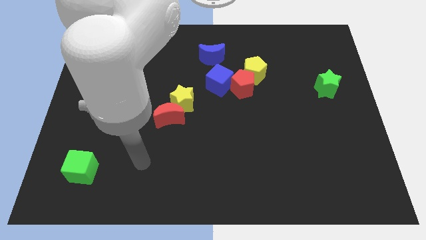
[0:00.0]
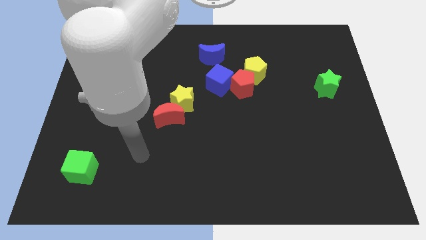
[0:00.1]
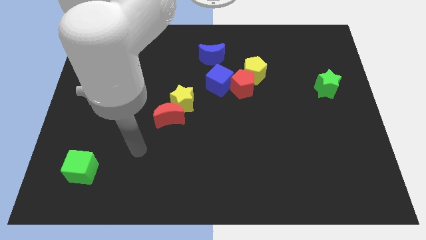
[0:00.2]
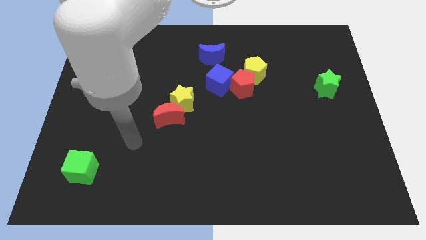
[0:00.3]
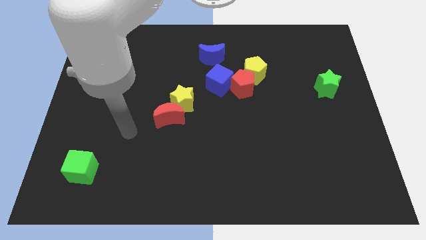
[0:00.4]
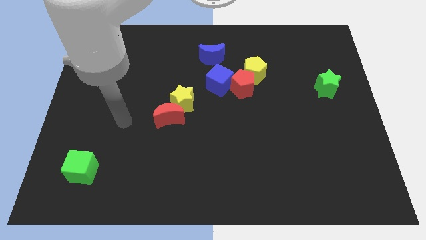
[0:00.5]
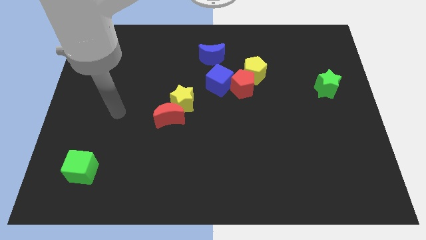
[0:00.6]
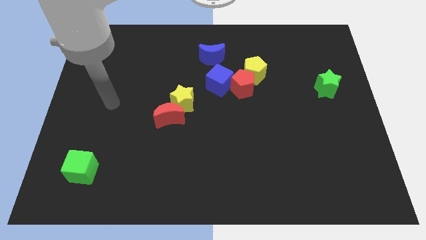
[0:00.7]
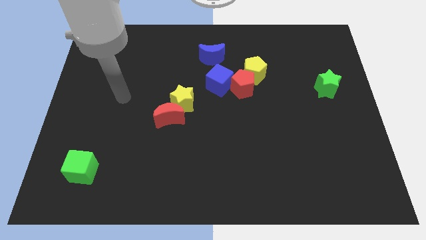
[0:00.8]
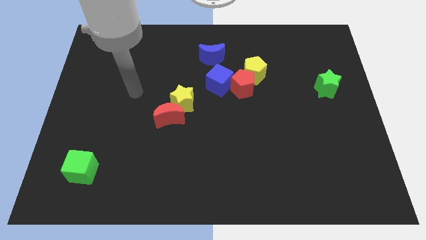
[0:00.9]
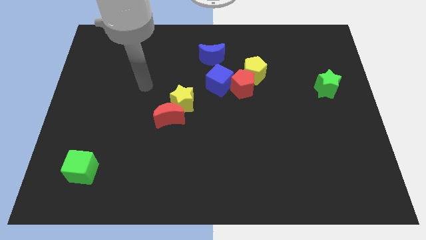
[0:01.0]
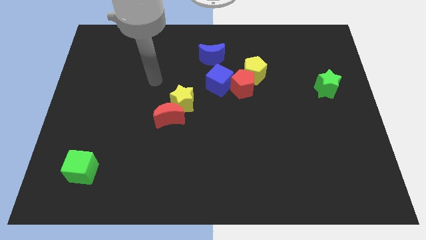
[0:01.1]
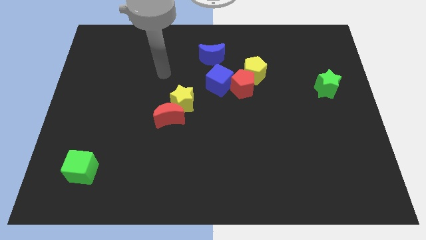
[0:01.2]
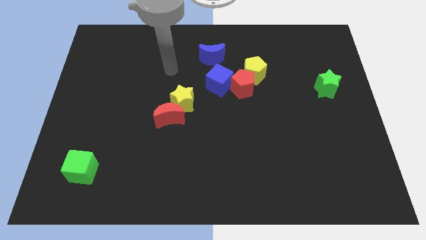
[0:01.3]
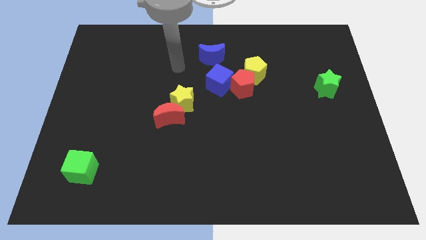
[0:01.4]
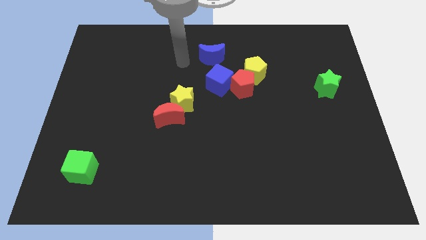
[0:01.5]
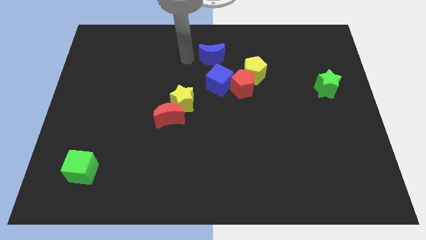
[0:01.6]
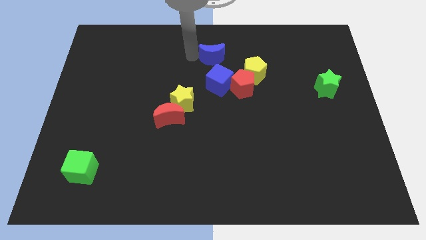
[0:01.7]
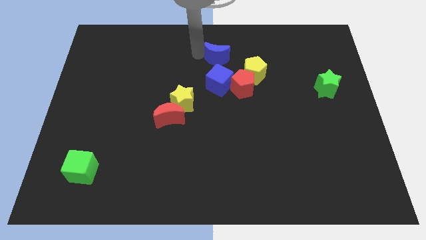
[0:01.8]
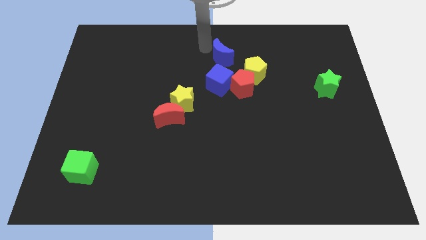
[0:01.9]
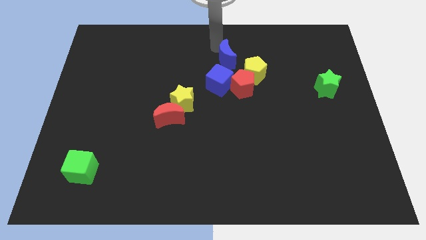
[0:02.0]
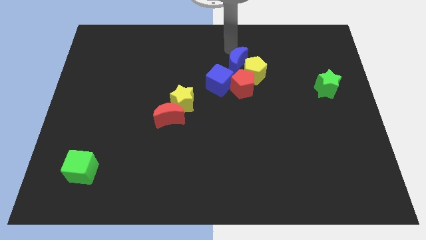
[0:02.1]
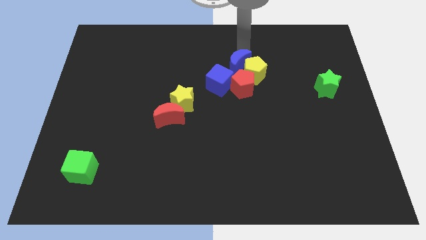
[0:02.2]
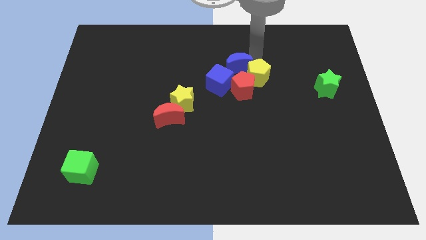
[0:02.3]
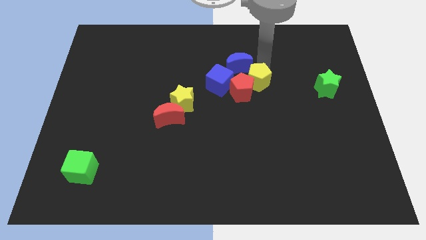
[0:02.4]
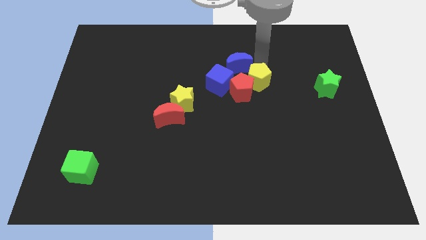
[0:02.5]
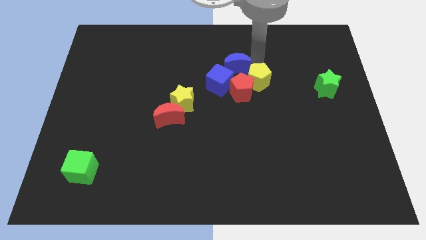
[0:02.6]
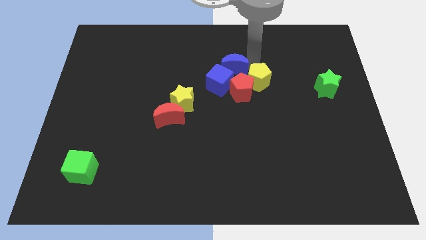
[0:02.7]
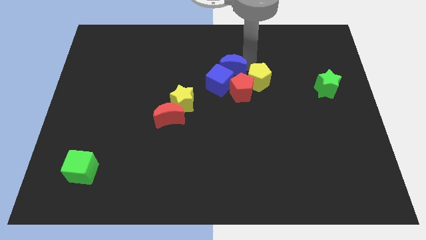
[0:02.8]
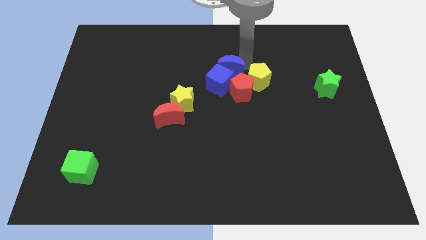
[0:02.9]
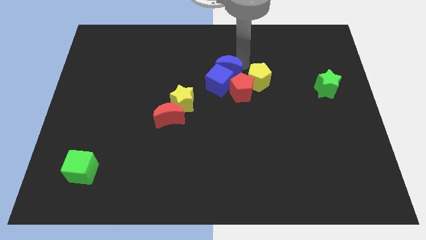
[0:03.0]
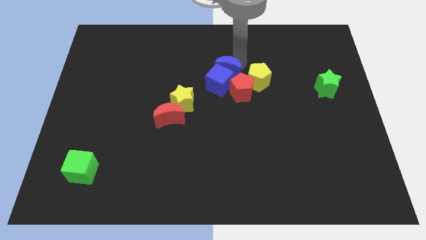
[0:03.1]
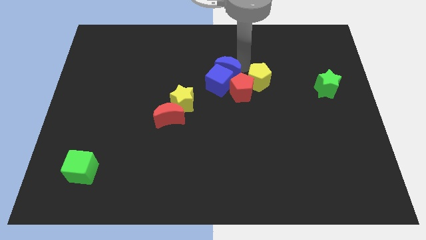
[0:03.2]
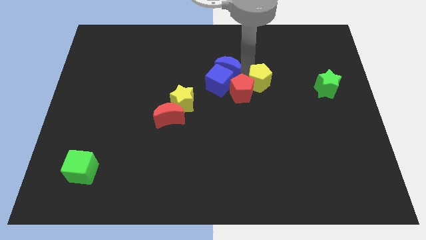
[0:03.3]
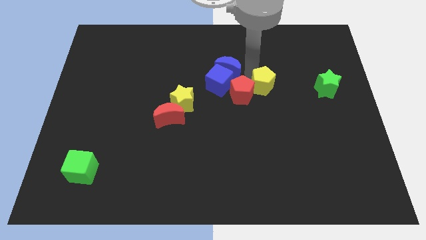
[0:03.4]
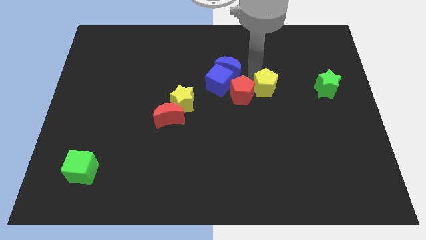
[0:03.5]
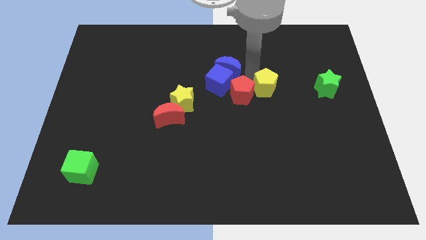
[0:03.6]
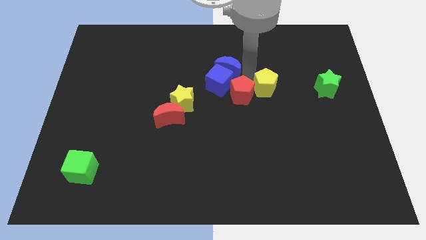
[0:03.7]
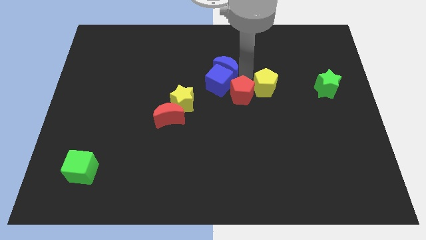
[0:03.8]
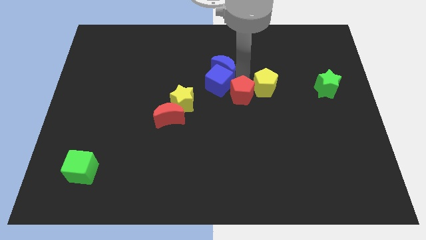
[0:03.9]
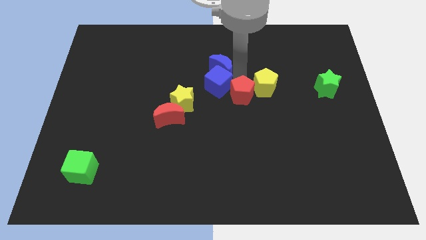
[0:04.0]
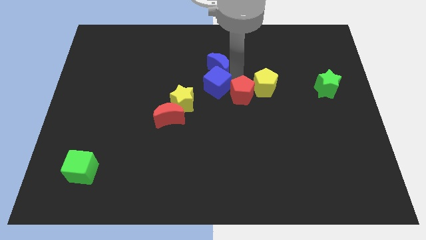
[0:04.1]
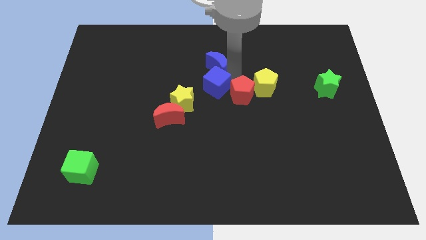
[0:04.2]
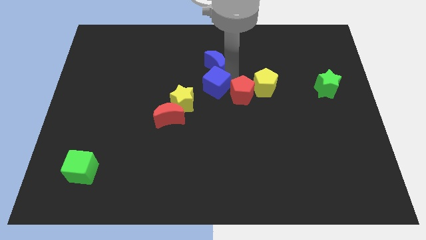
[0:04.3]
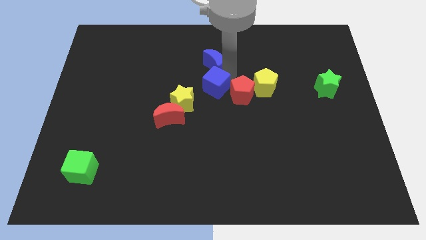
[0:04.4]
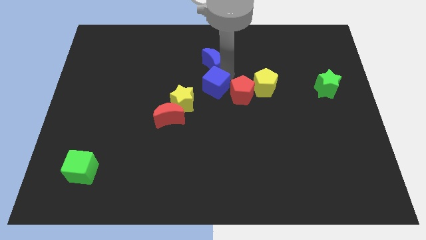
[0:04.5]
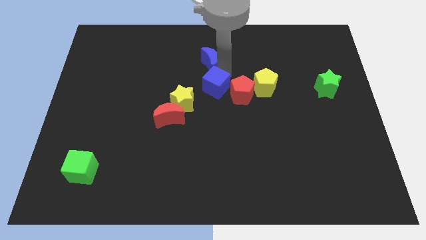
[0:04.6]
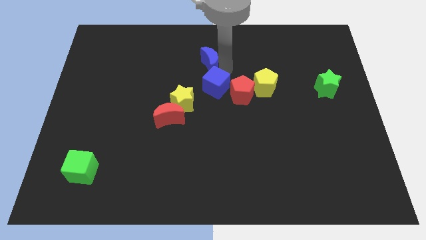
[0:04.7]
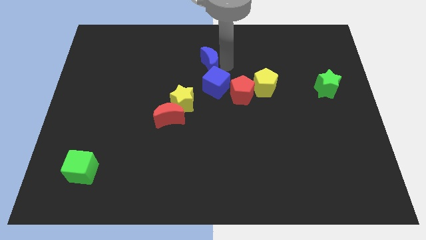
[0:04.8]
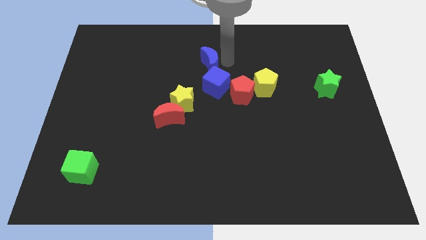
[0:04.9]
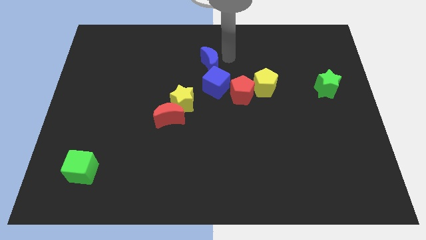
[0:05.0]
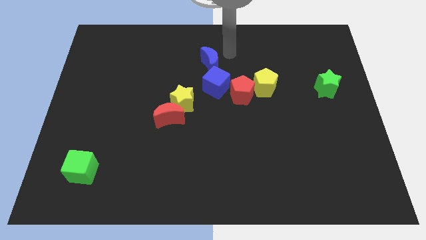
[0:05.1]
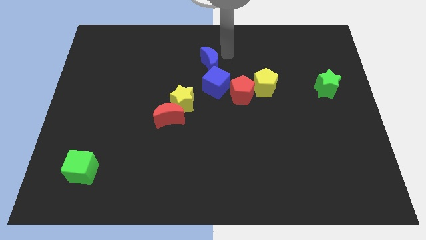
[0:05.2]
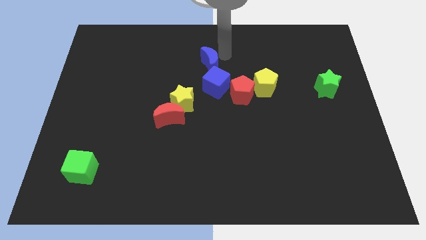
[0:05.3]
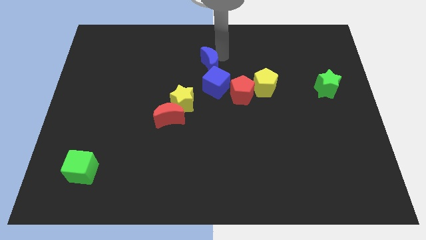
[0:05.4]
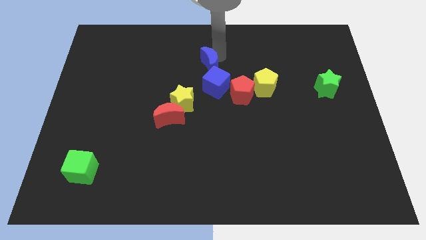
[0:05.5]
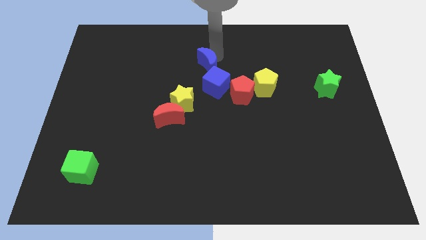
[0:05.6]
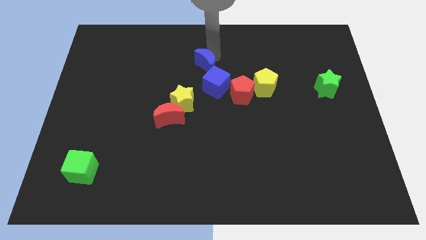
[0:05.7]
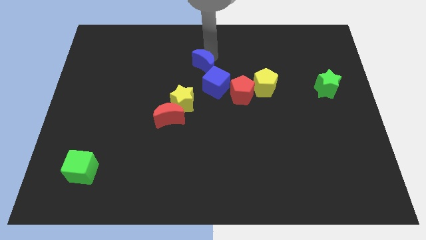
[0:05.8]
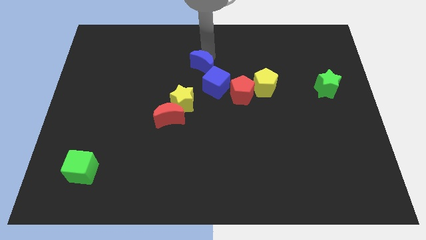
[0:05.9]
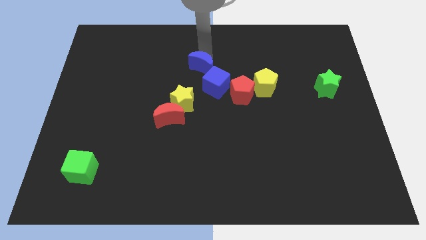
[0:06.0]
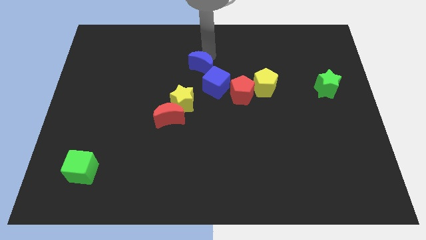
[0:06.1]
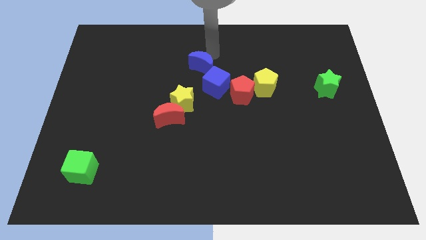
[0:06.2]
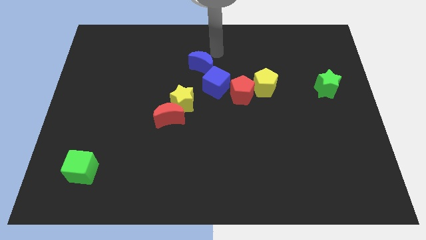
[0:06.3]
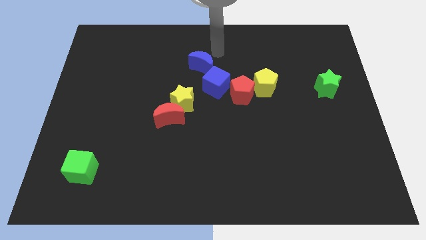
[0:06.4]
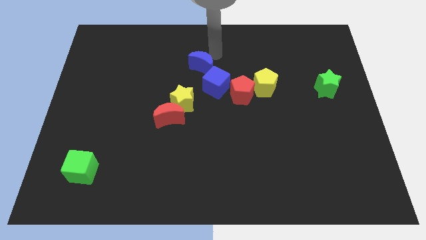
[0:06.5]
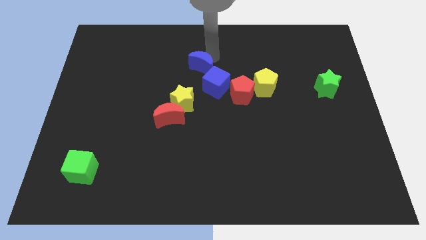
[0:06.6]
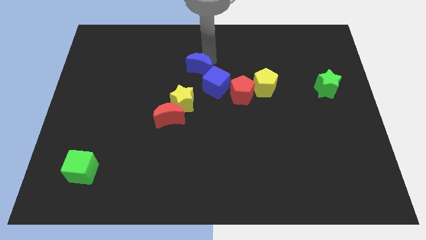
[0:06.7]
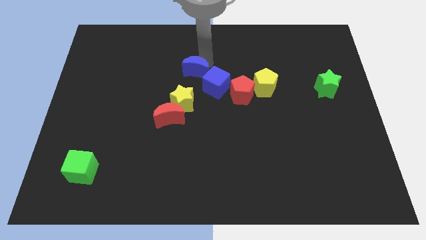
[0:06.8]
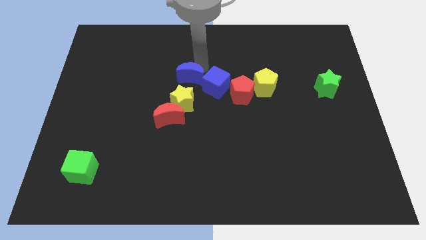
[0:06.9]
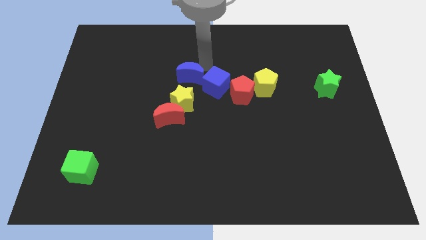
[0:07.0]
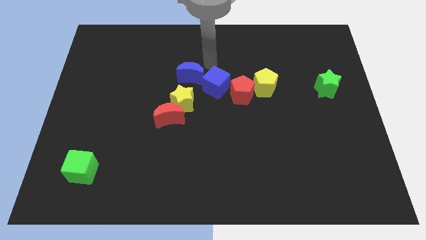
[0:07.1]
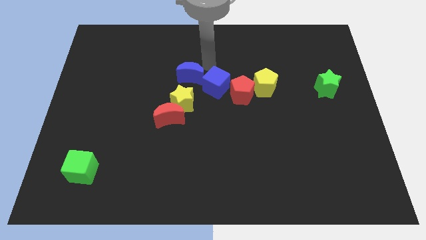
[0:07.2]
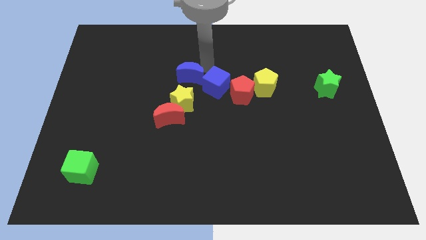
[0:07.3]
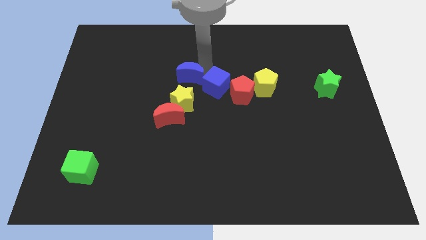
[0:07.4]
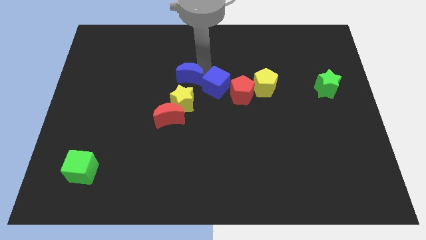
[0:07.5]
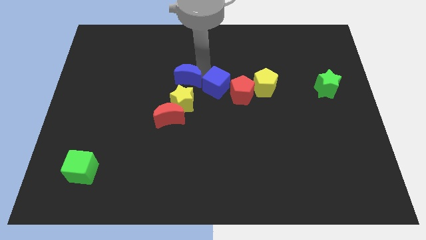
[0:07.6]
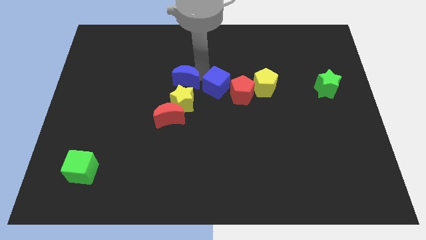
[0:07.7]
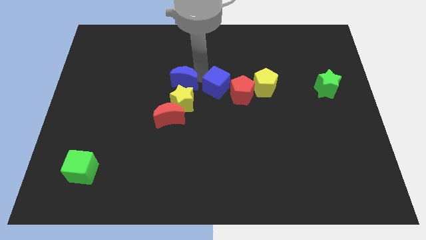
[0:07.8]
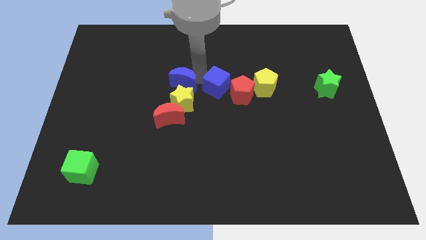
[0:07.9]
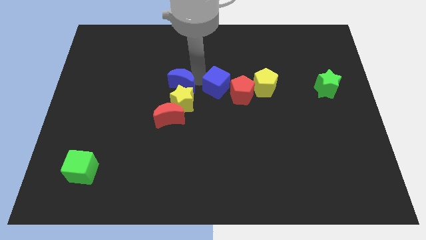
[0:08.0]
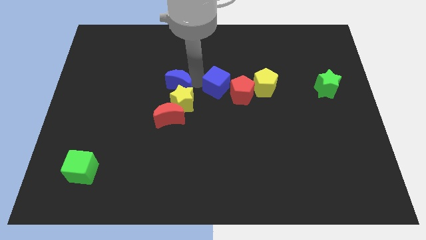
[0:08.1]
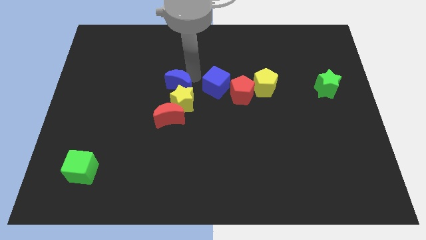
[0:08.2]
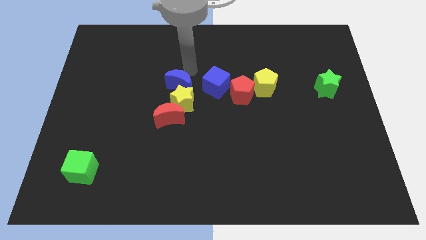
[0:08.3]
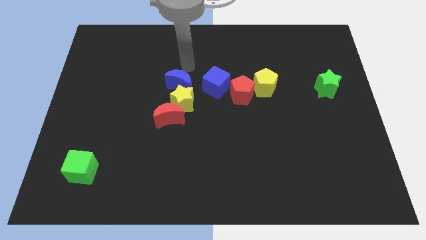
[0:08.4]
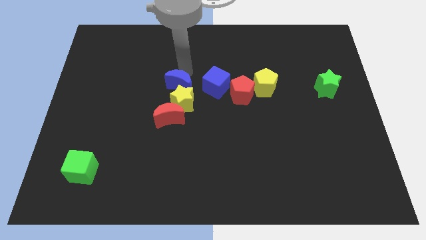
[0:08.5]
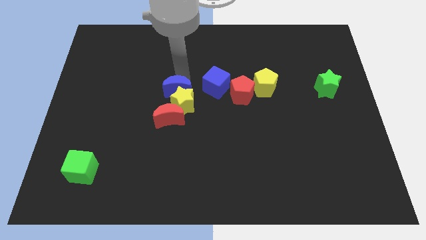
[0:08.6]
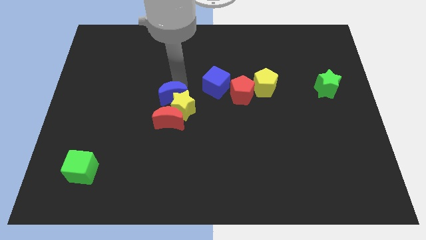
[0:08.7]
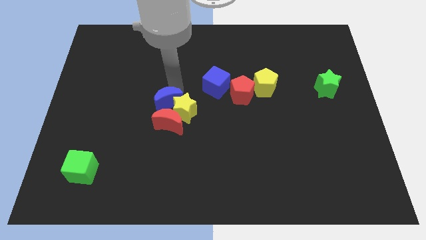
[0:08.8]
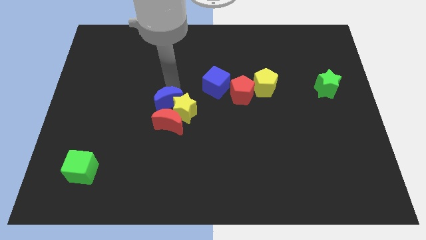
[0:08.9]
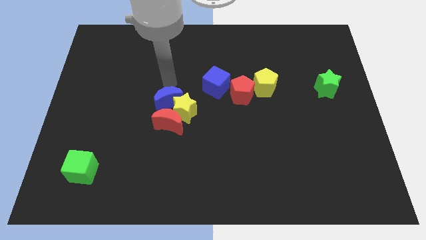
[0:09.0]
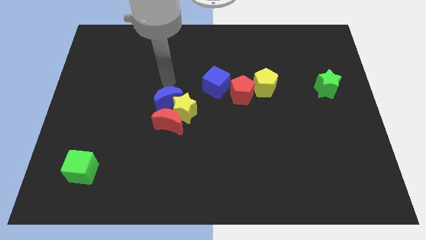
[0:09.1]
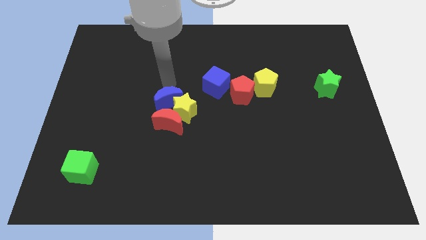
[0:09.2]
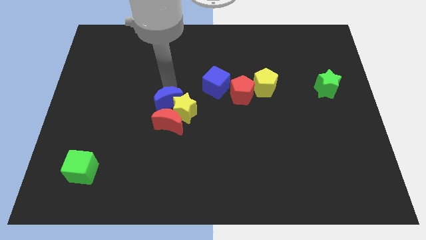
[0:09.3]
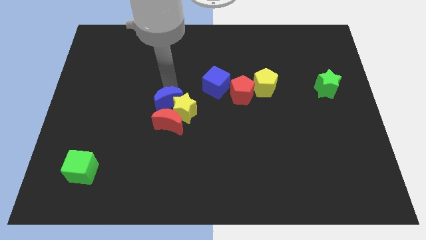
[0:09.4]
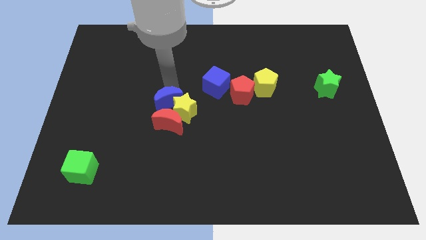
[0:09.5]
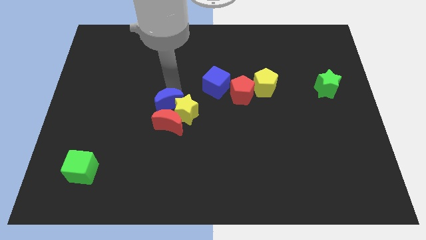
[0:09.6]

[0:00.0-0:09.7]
move the blue moon to the red moon
